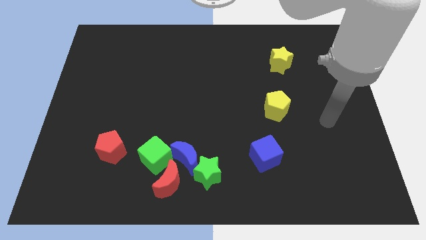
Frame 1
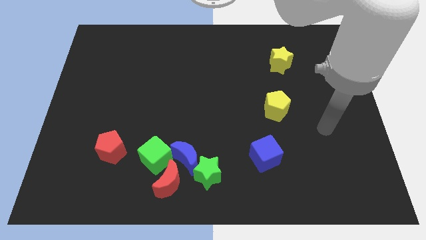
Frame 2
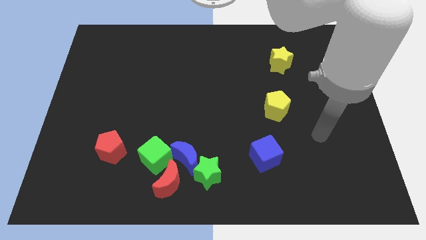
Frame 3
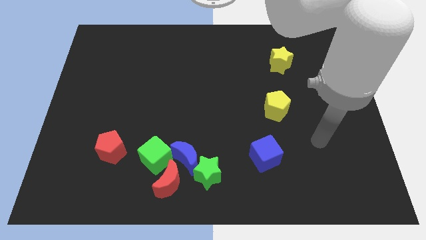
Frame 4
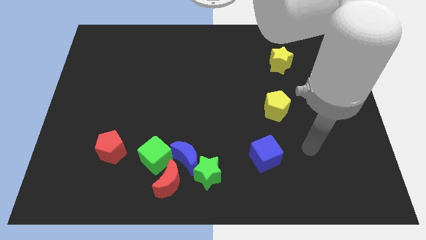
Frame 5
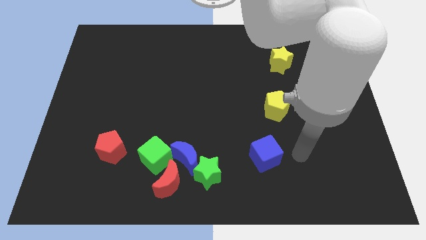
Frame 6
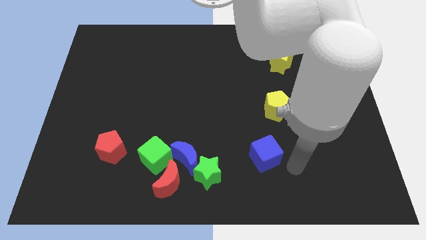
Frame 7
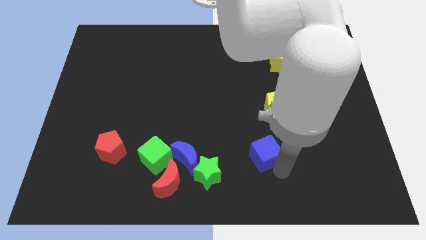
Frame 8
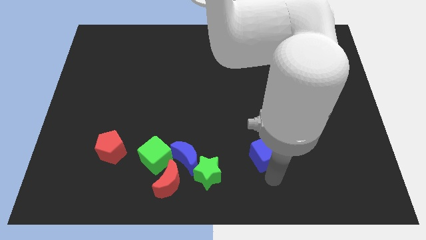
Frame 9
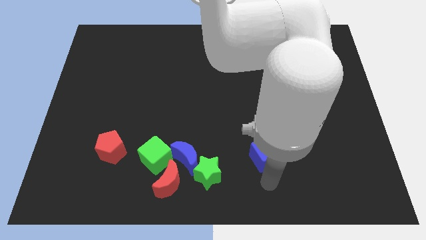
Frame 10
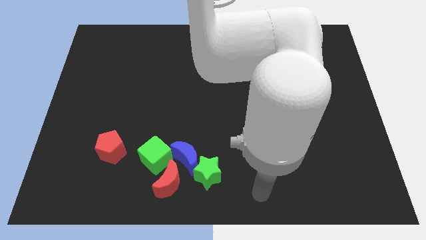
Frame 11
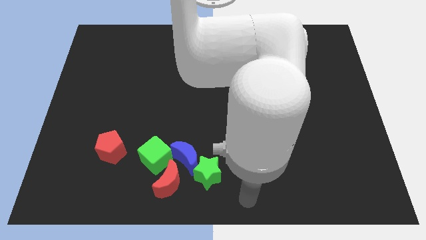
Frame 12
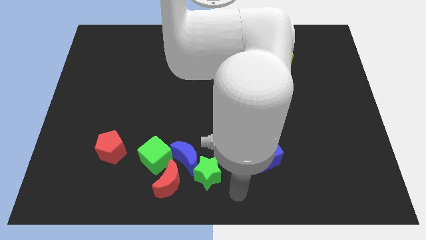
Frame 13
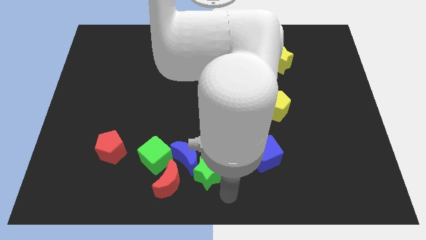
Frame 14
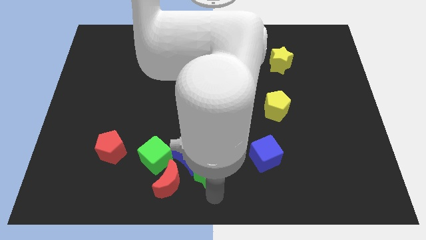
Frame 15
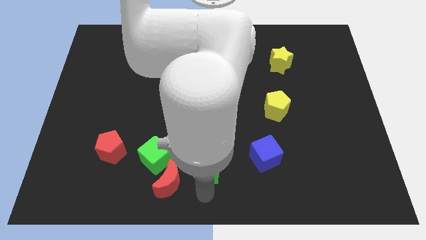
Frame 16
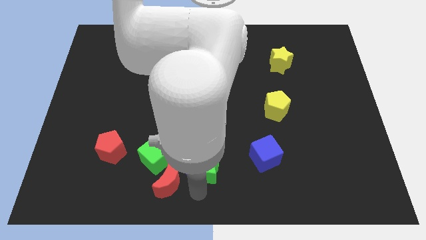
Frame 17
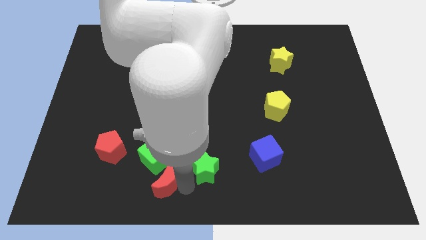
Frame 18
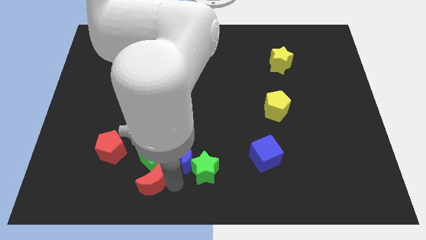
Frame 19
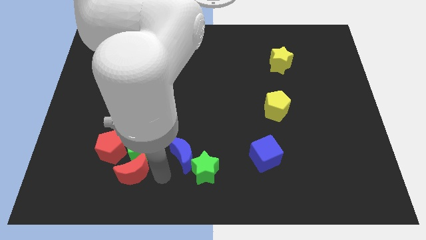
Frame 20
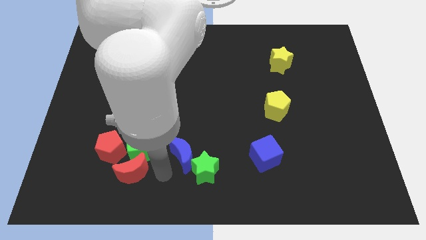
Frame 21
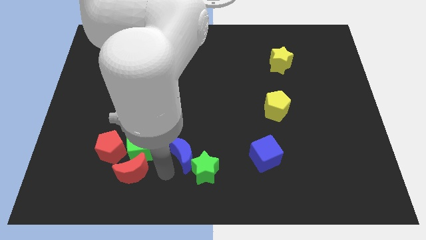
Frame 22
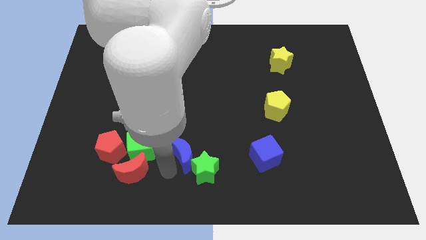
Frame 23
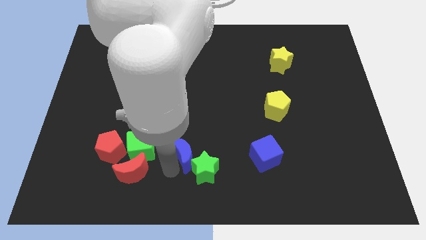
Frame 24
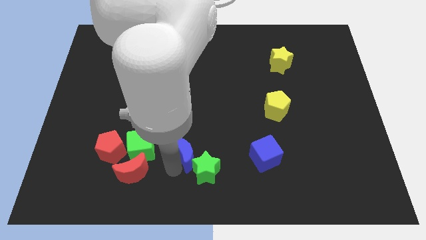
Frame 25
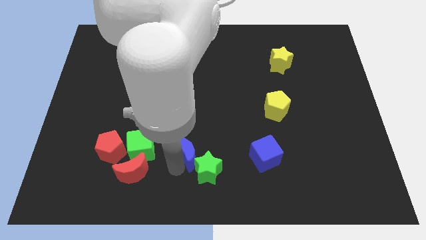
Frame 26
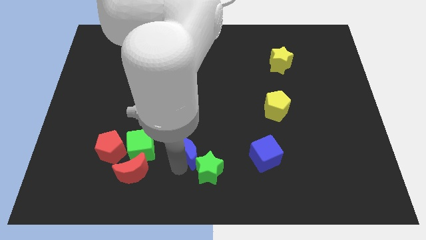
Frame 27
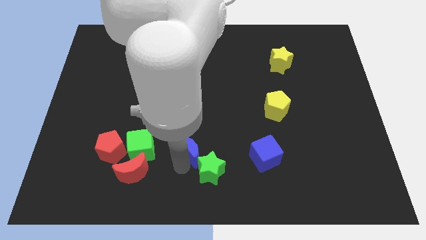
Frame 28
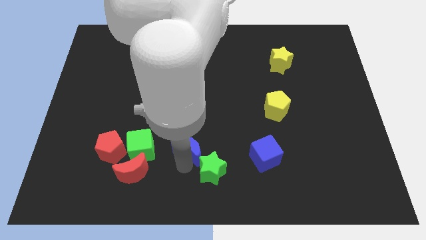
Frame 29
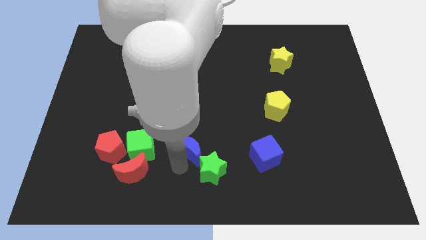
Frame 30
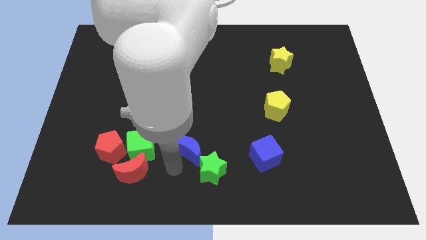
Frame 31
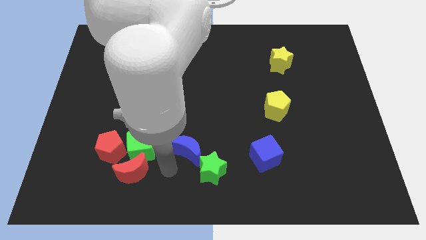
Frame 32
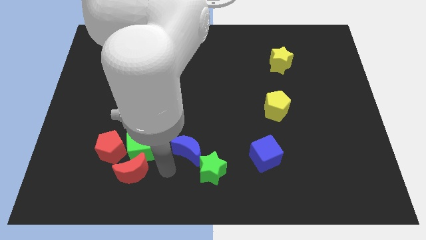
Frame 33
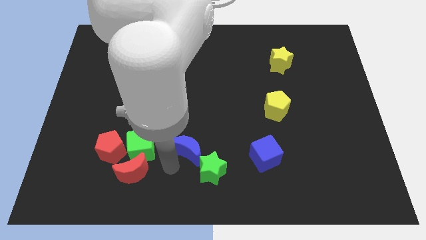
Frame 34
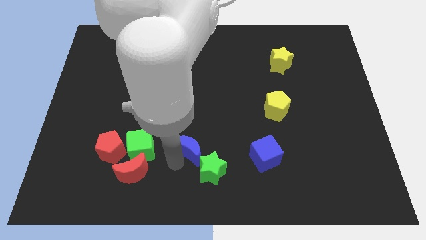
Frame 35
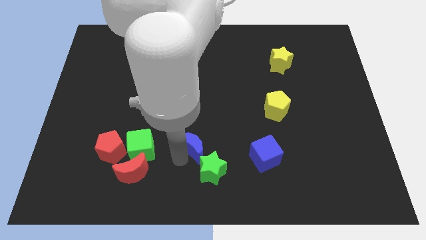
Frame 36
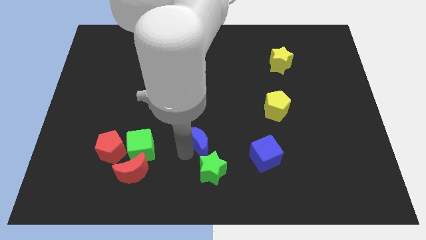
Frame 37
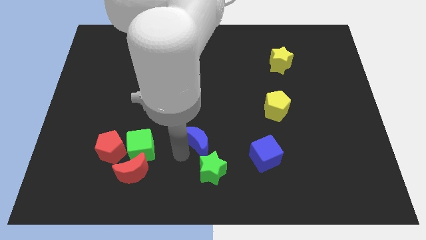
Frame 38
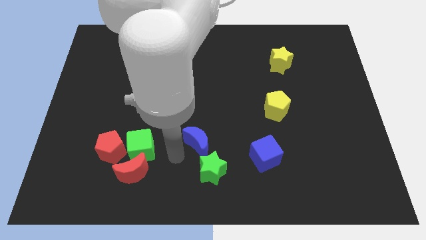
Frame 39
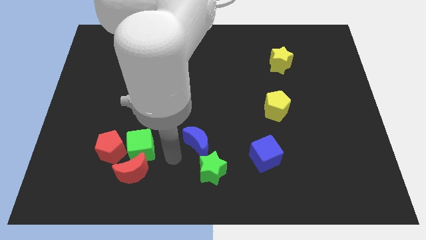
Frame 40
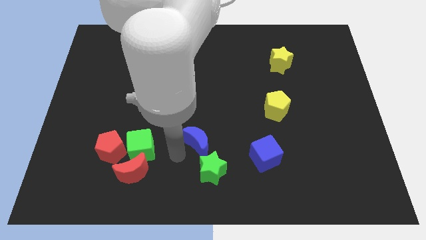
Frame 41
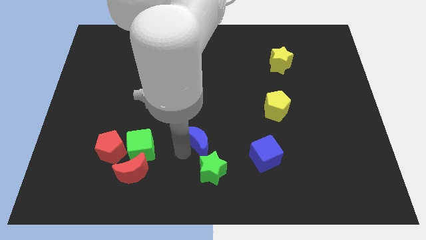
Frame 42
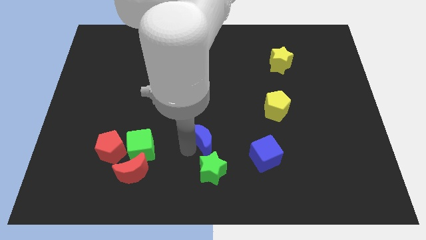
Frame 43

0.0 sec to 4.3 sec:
pull the blue moon apart from the clump

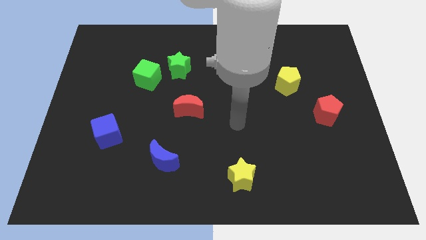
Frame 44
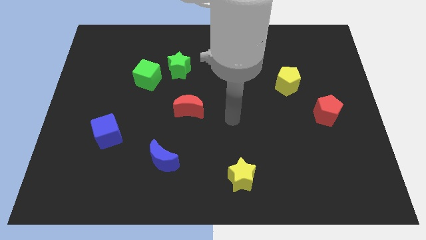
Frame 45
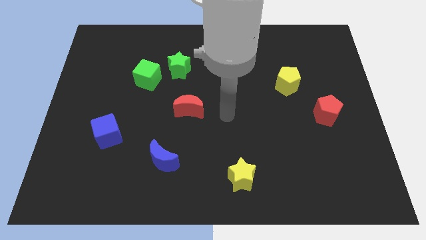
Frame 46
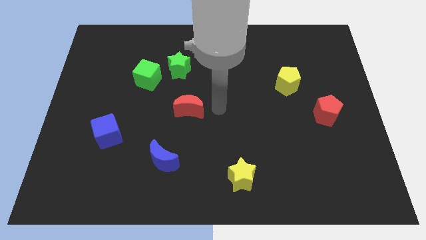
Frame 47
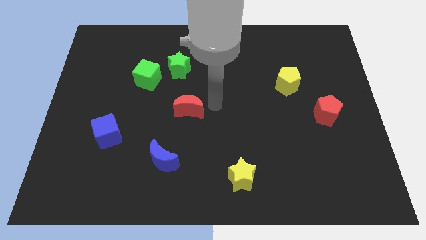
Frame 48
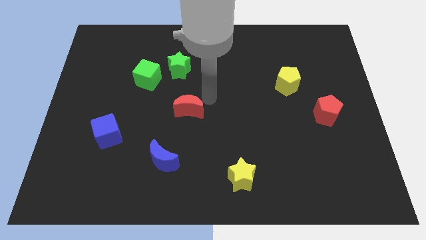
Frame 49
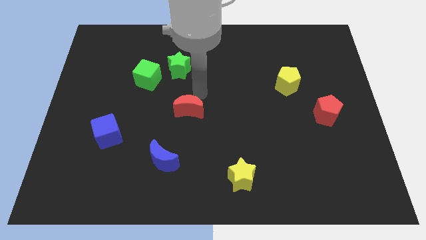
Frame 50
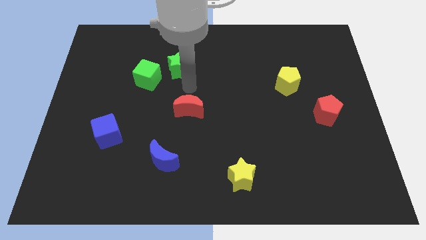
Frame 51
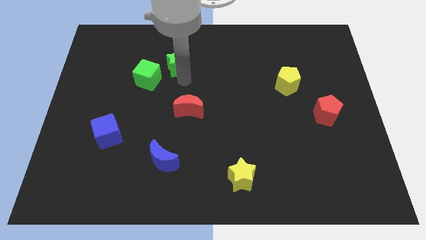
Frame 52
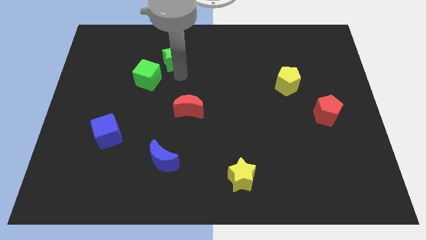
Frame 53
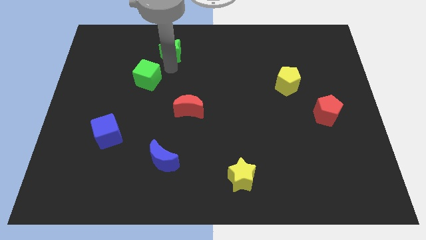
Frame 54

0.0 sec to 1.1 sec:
move the green cube away from the green star

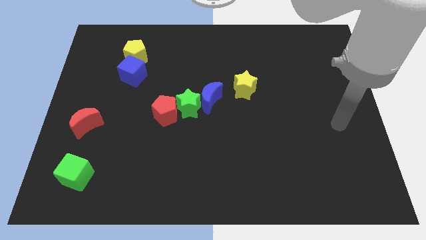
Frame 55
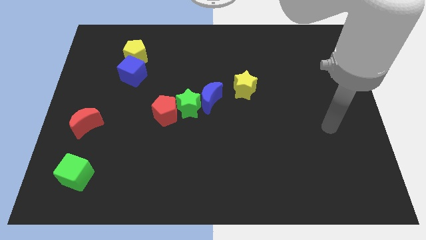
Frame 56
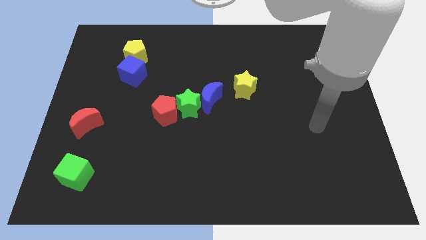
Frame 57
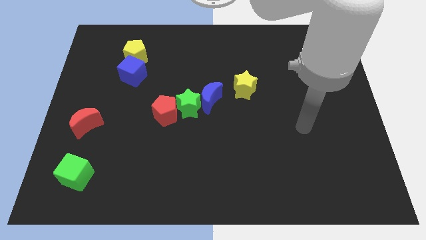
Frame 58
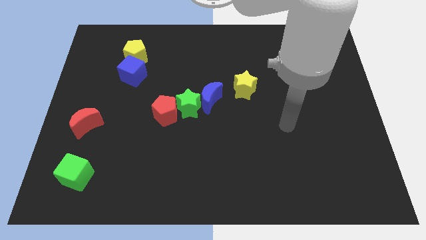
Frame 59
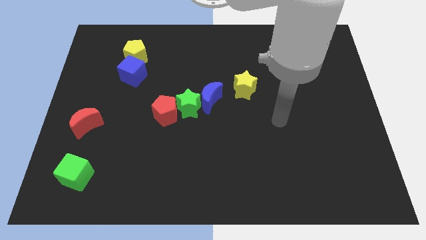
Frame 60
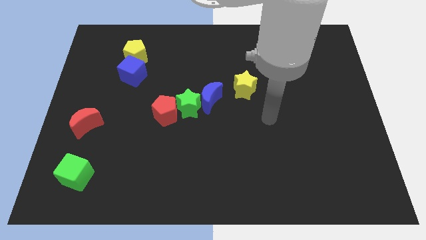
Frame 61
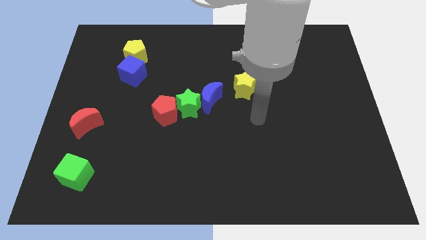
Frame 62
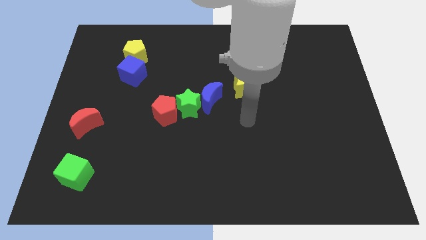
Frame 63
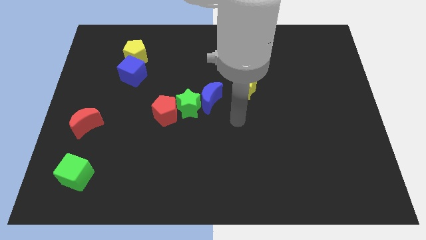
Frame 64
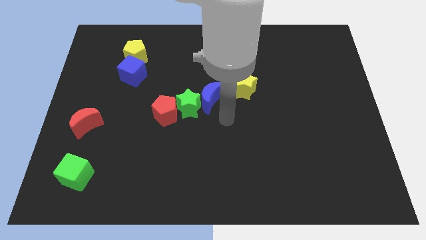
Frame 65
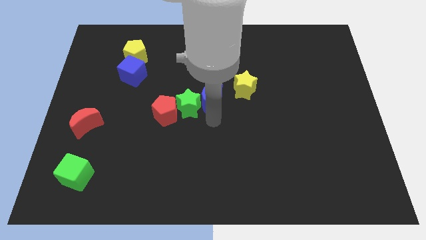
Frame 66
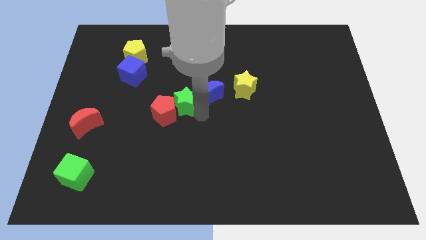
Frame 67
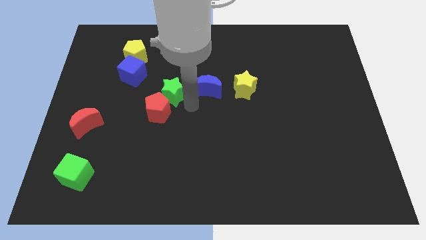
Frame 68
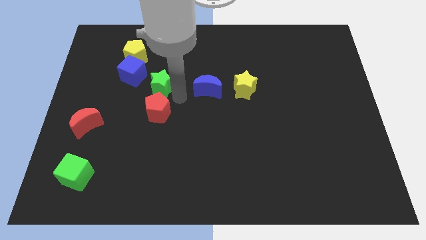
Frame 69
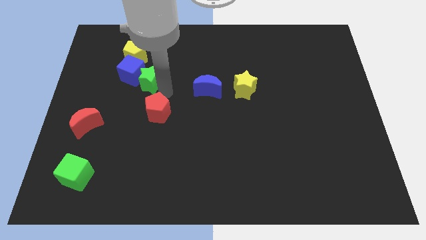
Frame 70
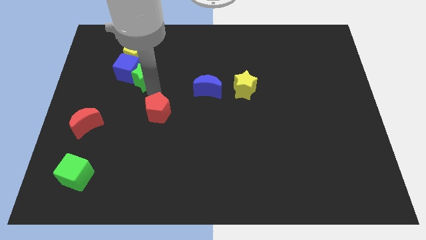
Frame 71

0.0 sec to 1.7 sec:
pull the red pentagon apart from the green star

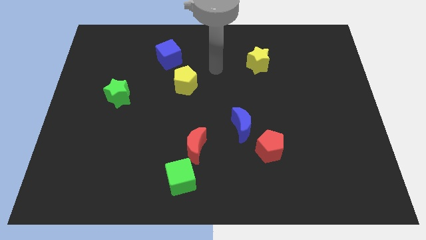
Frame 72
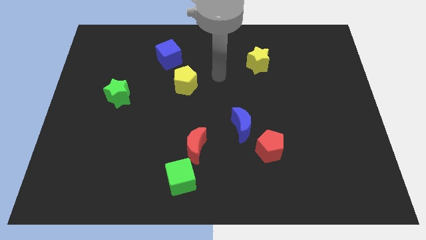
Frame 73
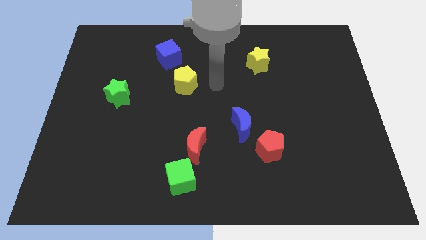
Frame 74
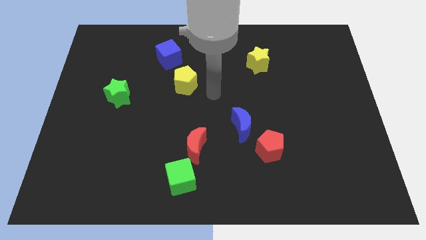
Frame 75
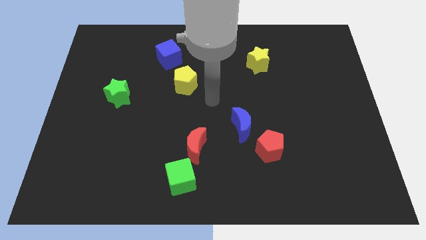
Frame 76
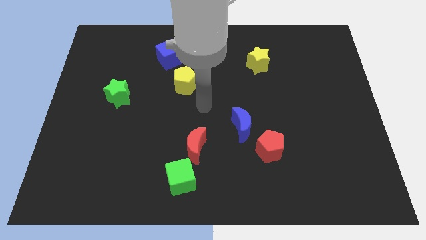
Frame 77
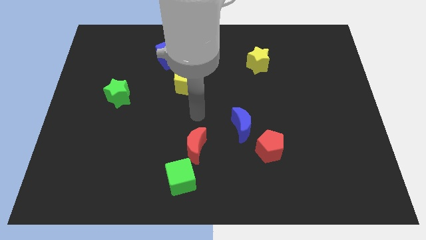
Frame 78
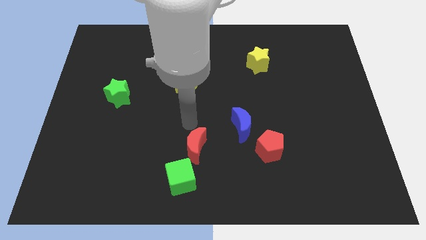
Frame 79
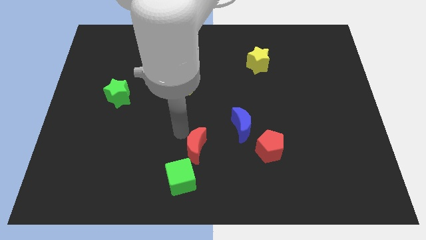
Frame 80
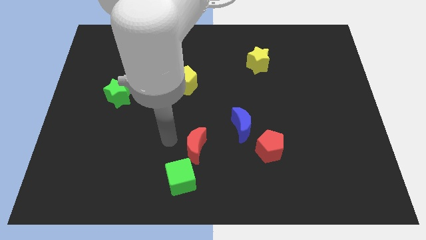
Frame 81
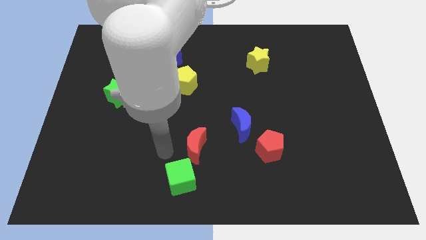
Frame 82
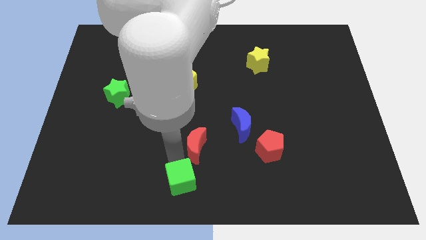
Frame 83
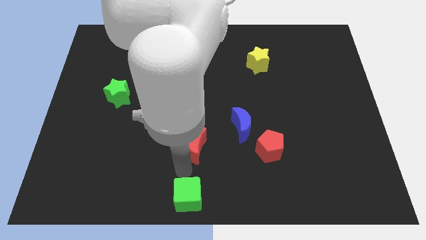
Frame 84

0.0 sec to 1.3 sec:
pull the red moon apart from the green cube

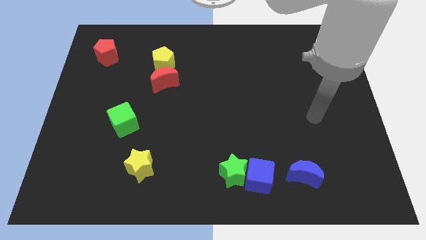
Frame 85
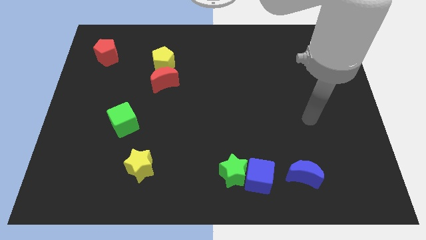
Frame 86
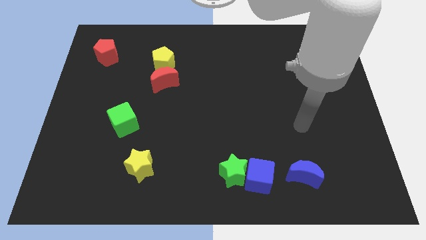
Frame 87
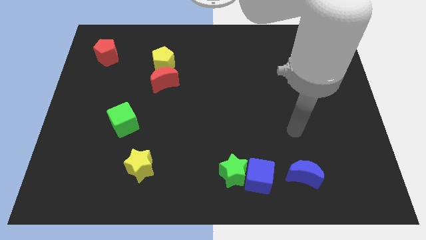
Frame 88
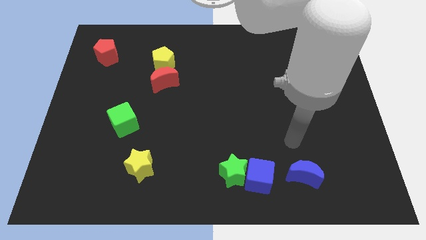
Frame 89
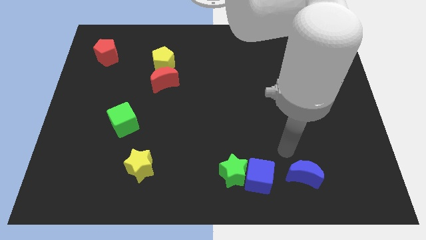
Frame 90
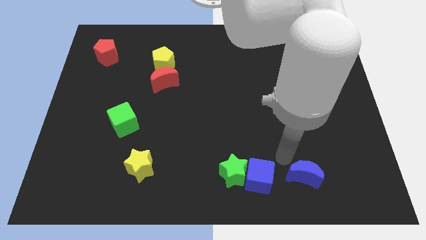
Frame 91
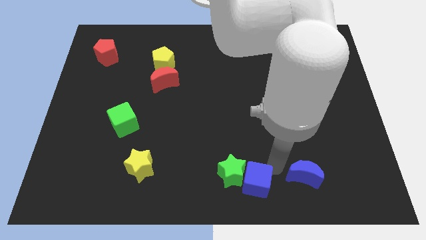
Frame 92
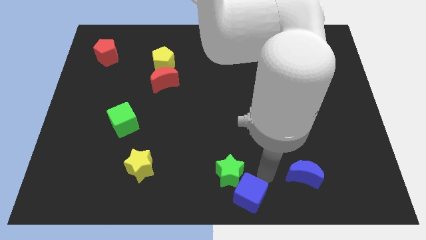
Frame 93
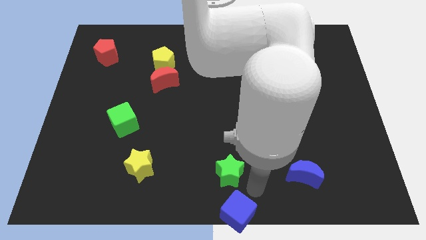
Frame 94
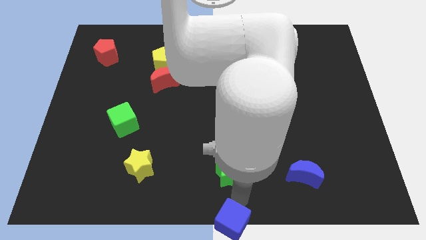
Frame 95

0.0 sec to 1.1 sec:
pull the green star apart from the blue cube
